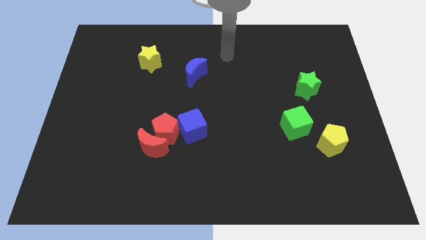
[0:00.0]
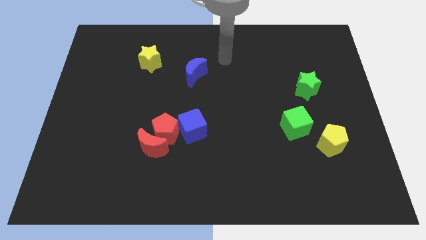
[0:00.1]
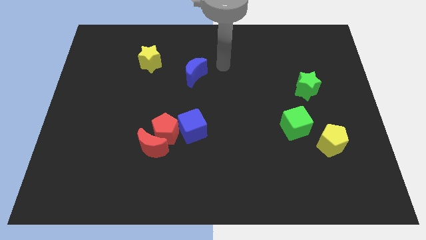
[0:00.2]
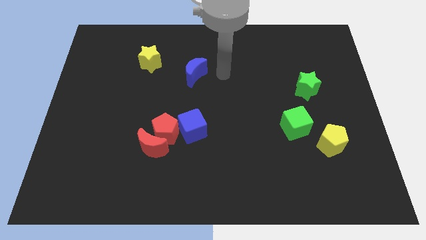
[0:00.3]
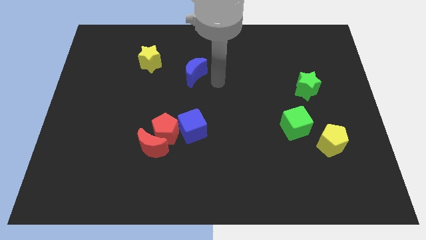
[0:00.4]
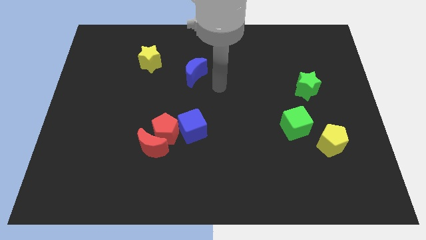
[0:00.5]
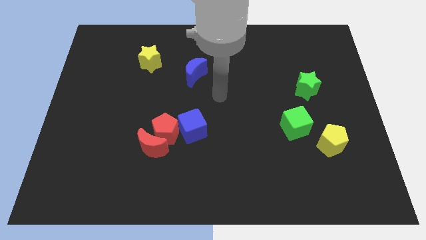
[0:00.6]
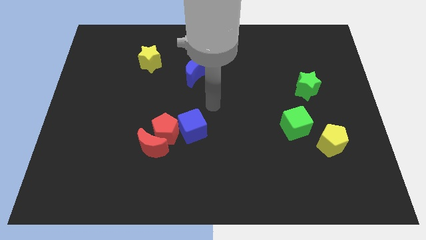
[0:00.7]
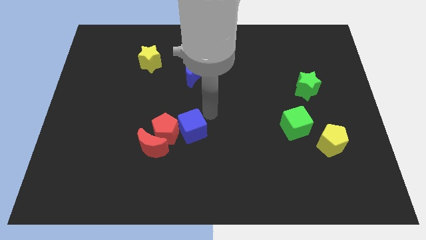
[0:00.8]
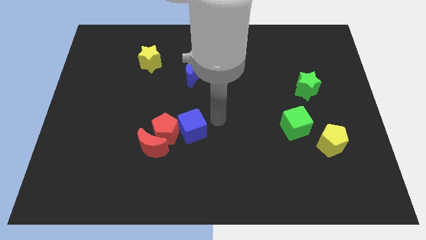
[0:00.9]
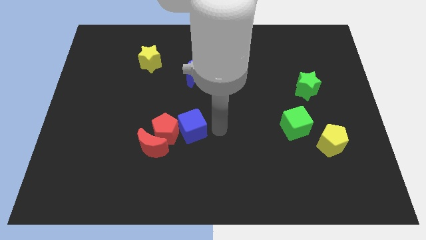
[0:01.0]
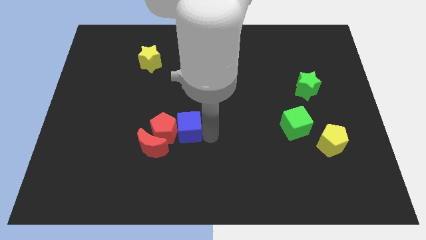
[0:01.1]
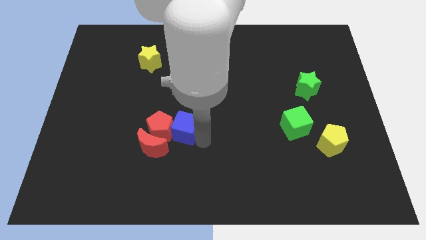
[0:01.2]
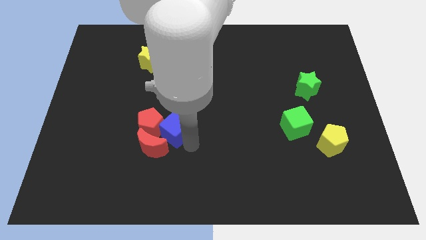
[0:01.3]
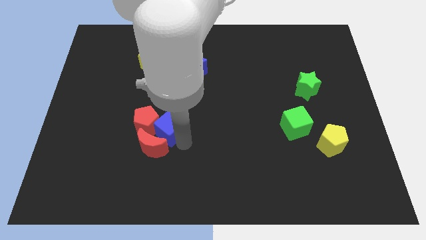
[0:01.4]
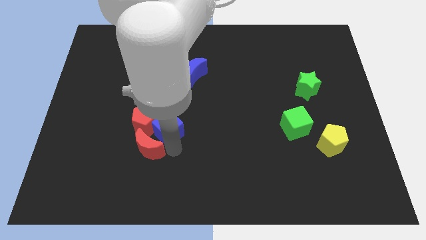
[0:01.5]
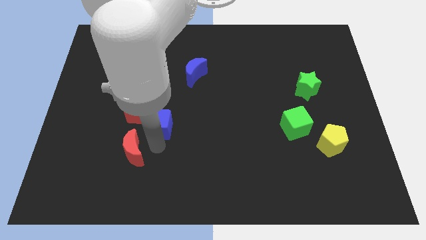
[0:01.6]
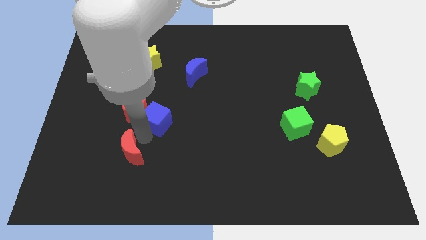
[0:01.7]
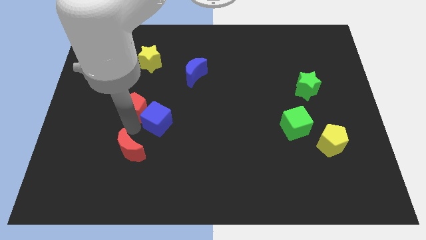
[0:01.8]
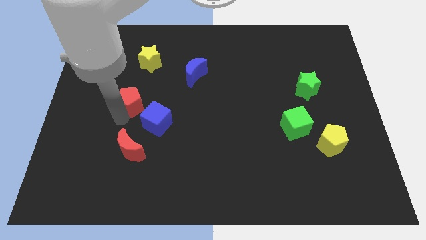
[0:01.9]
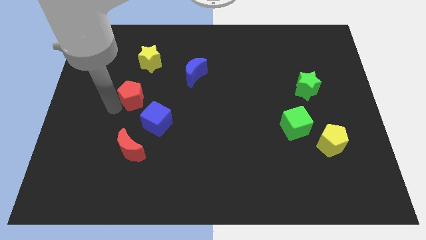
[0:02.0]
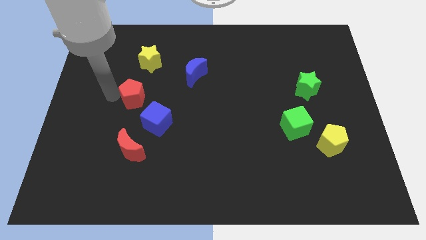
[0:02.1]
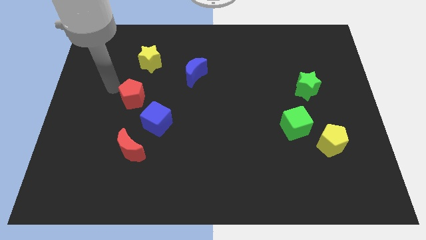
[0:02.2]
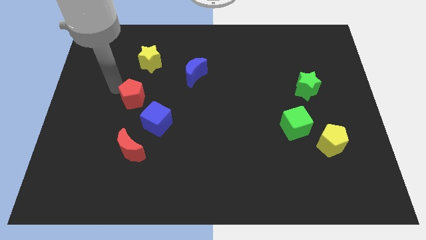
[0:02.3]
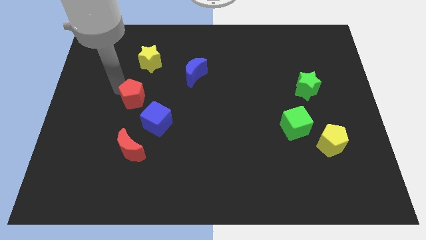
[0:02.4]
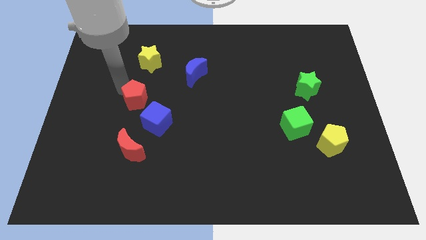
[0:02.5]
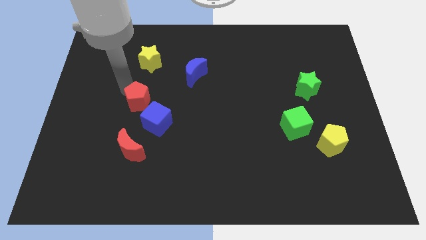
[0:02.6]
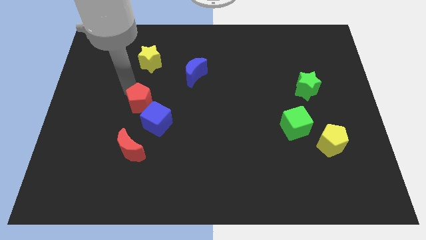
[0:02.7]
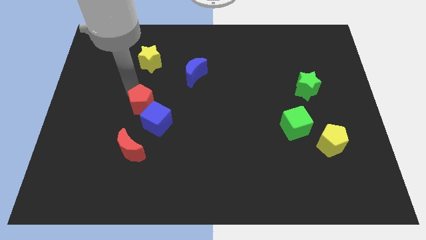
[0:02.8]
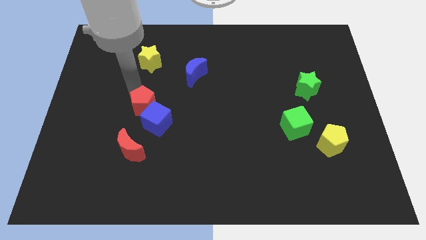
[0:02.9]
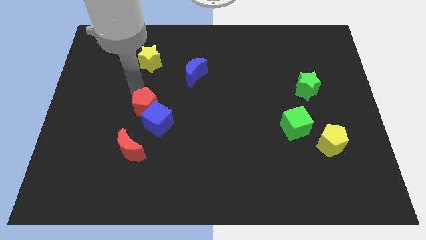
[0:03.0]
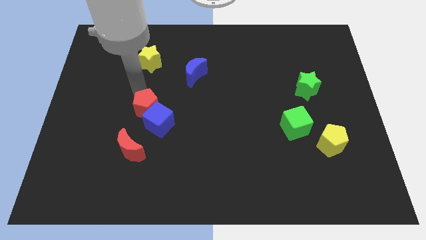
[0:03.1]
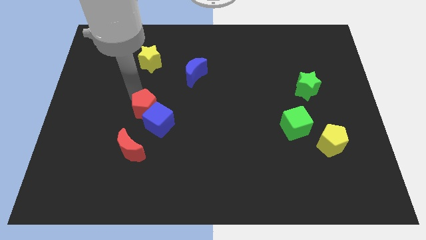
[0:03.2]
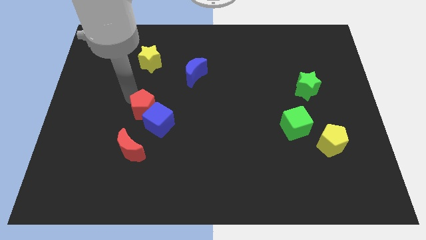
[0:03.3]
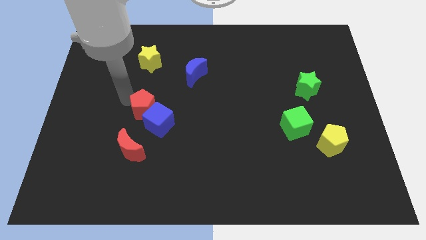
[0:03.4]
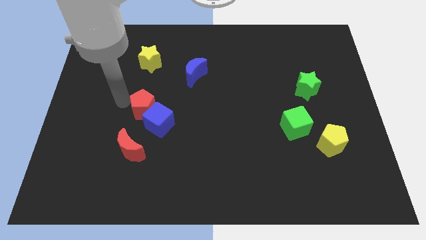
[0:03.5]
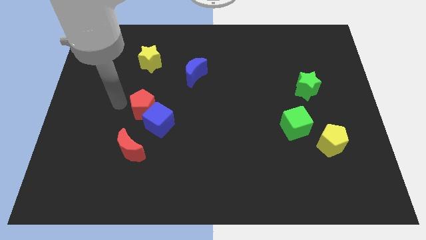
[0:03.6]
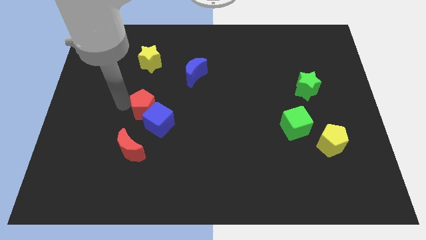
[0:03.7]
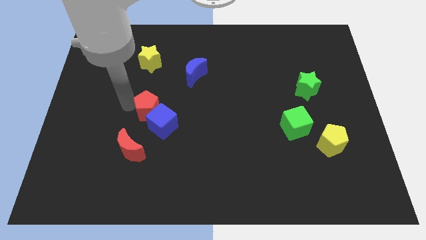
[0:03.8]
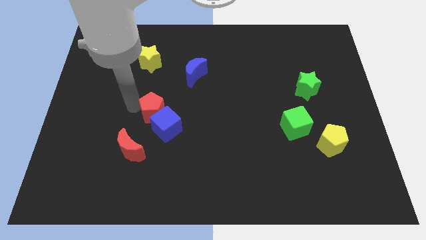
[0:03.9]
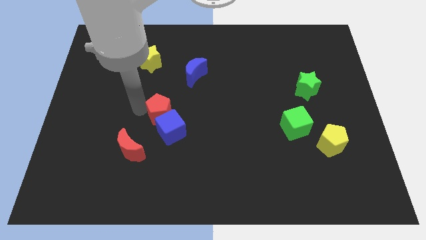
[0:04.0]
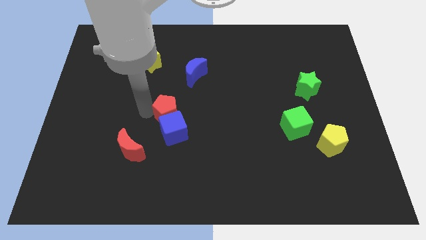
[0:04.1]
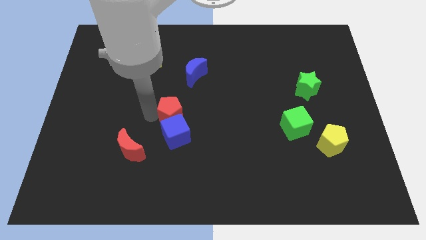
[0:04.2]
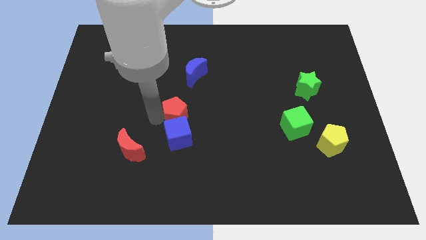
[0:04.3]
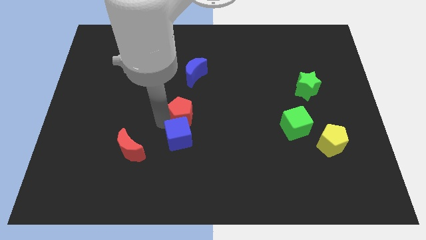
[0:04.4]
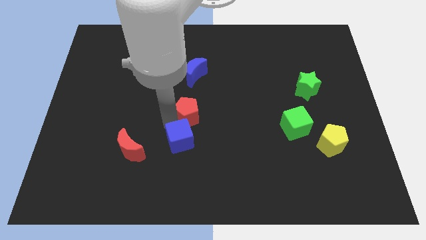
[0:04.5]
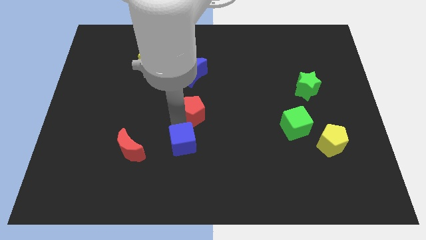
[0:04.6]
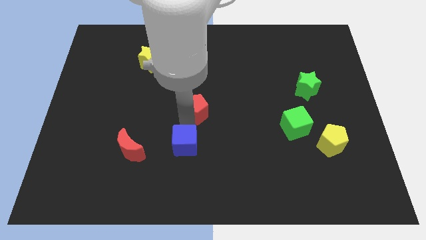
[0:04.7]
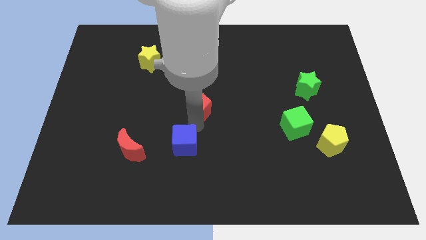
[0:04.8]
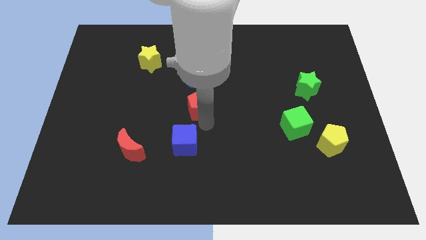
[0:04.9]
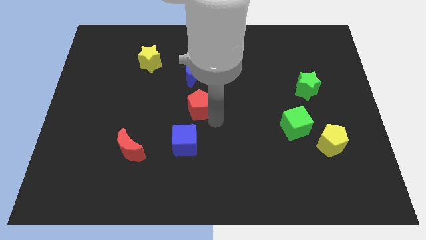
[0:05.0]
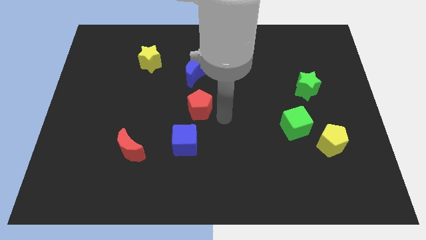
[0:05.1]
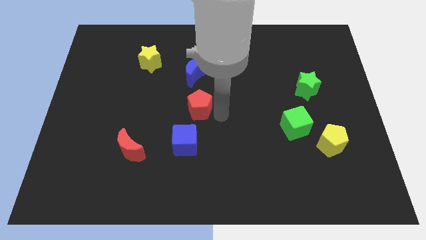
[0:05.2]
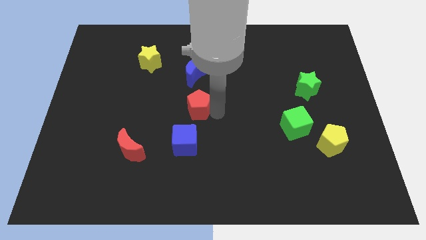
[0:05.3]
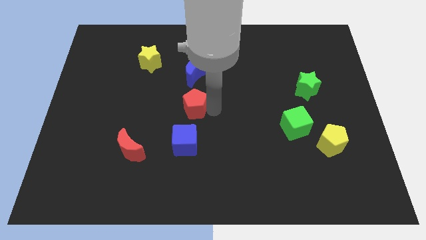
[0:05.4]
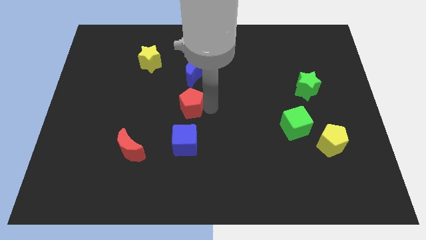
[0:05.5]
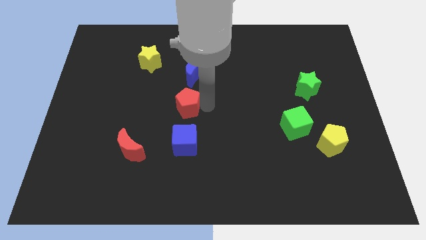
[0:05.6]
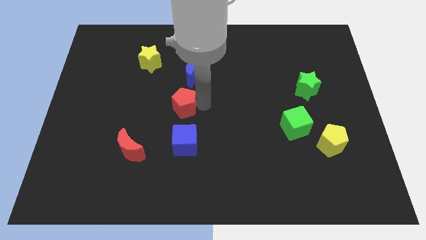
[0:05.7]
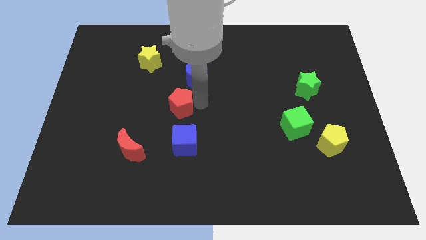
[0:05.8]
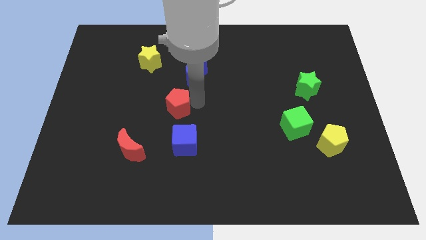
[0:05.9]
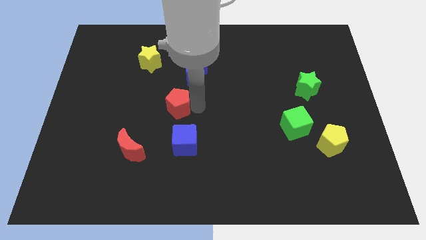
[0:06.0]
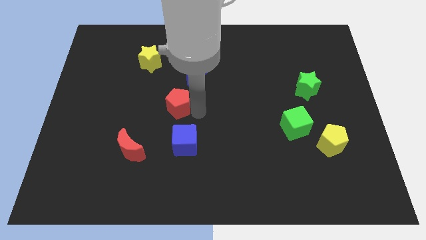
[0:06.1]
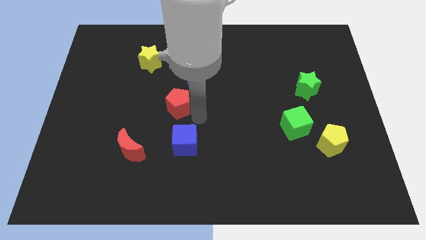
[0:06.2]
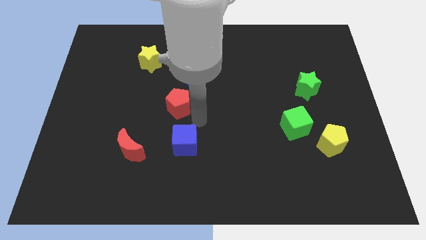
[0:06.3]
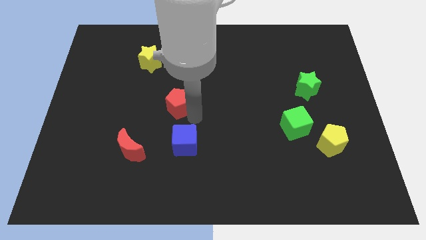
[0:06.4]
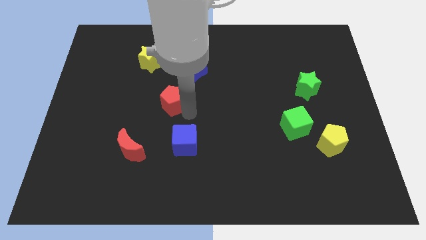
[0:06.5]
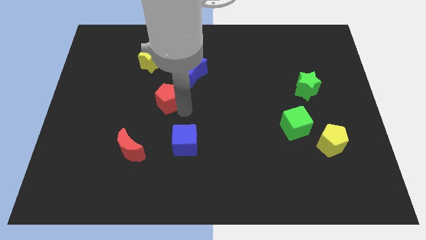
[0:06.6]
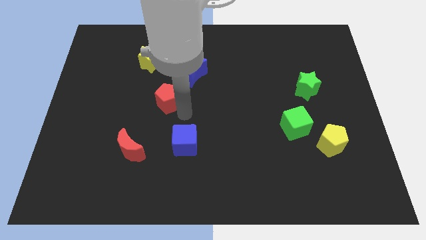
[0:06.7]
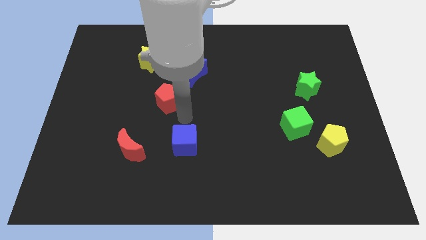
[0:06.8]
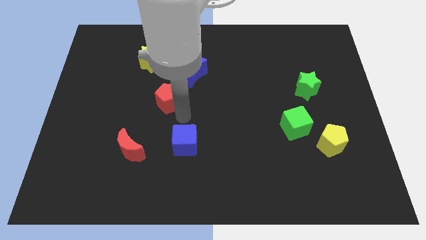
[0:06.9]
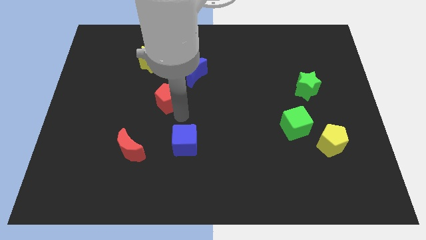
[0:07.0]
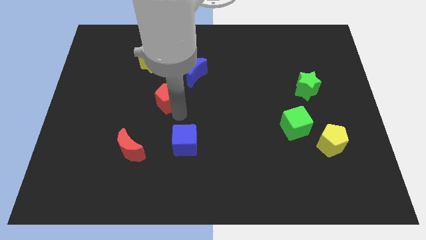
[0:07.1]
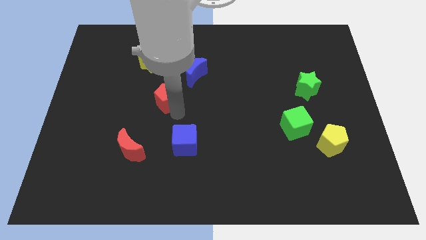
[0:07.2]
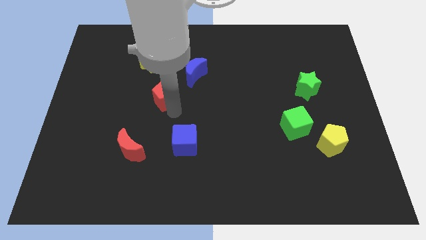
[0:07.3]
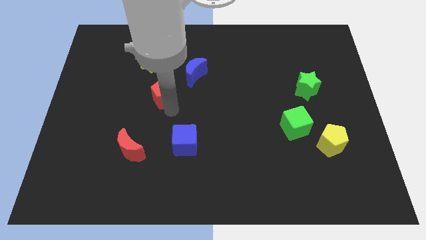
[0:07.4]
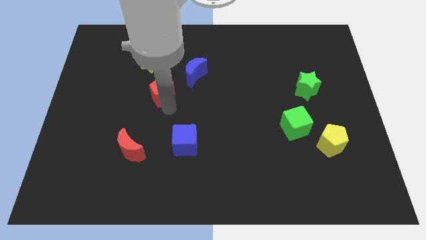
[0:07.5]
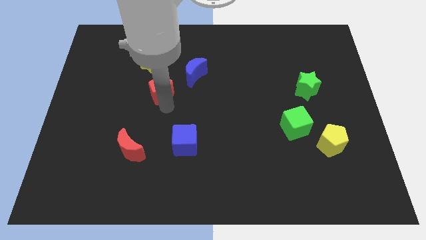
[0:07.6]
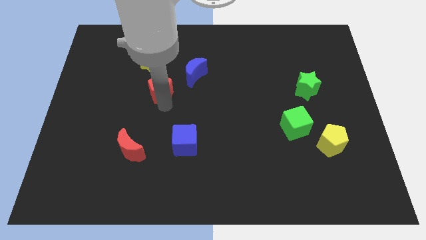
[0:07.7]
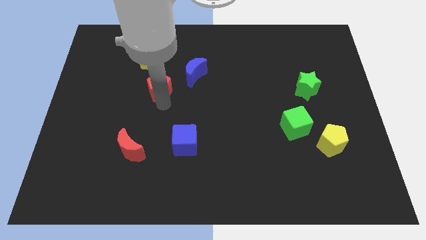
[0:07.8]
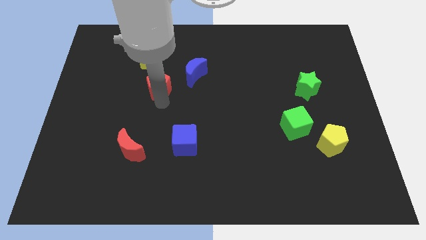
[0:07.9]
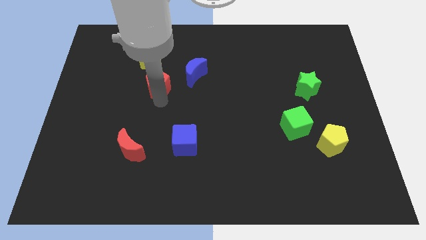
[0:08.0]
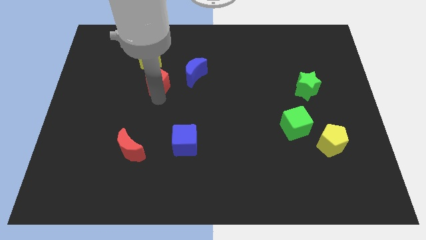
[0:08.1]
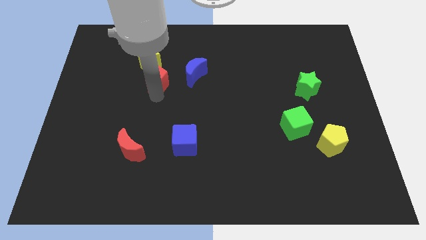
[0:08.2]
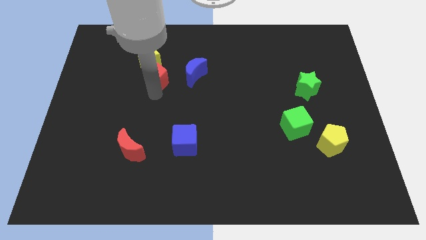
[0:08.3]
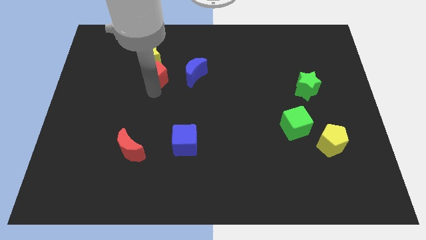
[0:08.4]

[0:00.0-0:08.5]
put the red pentagon close to the yellow star
